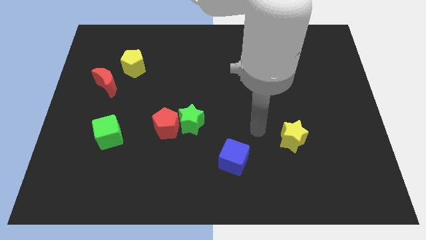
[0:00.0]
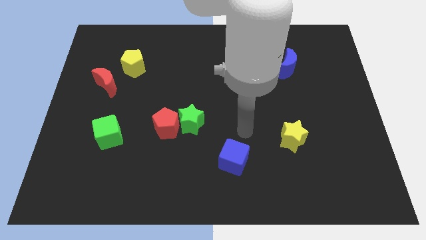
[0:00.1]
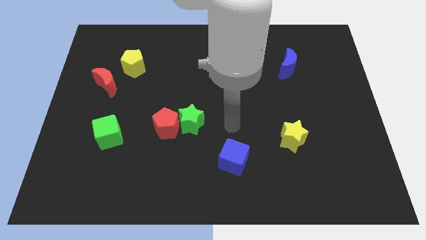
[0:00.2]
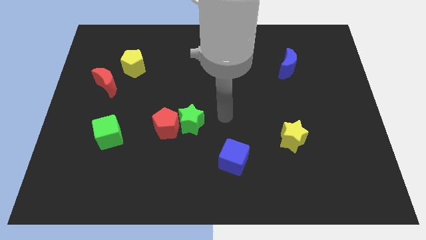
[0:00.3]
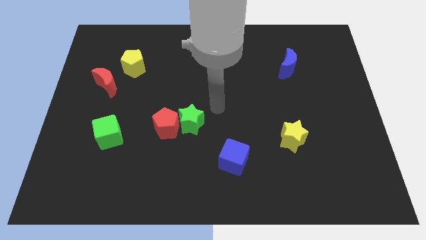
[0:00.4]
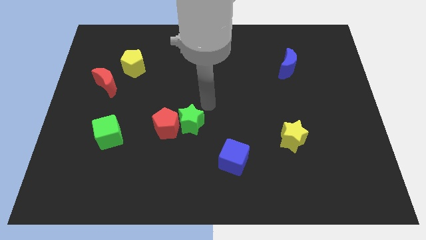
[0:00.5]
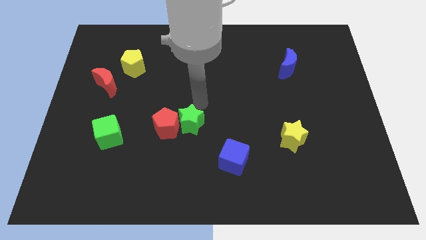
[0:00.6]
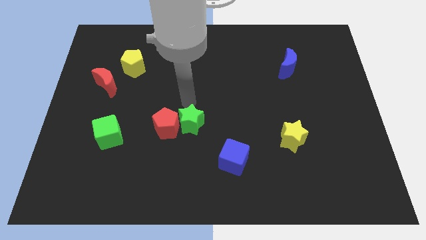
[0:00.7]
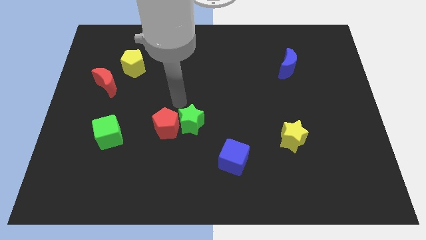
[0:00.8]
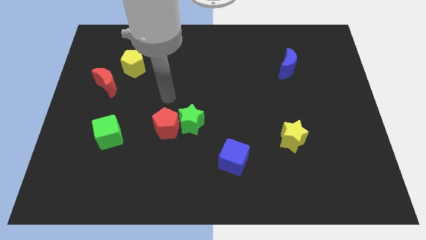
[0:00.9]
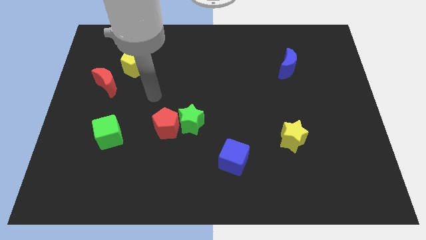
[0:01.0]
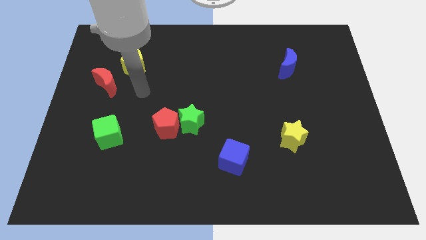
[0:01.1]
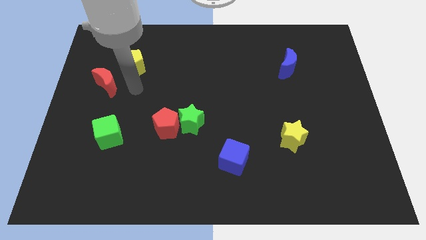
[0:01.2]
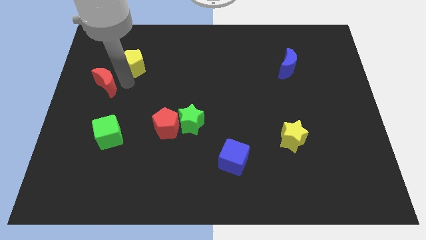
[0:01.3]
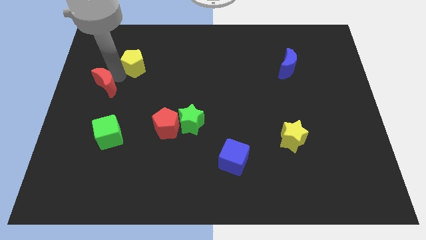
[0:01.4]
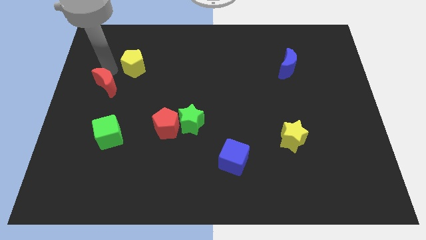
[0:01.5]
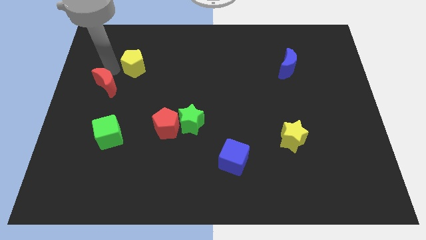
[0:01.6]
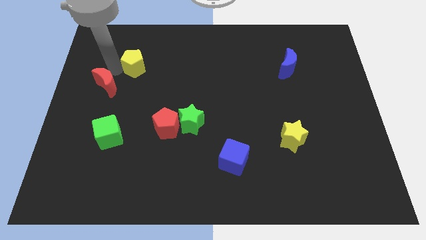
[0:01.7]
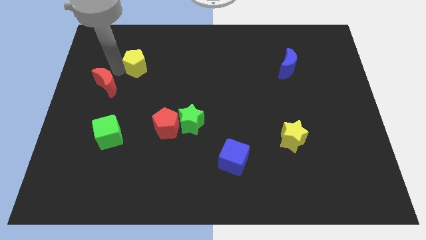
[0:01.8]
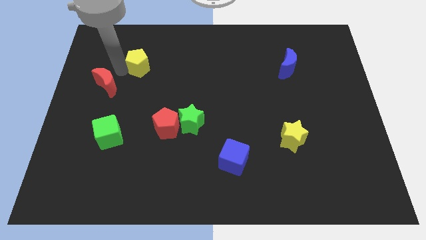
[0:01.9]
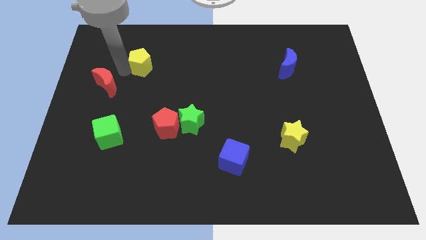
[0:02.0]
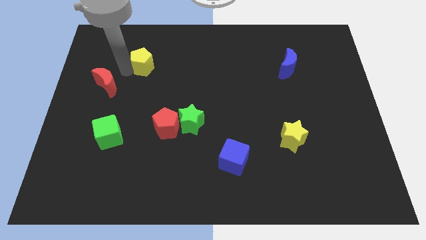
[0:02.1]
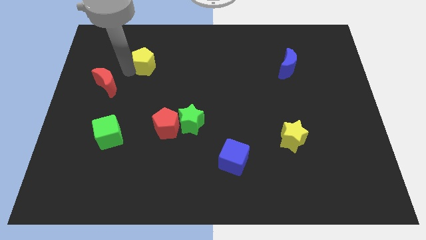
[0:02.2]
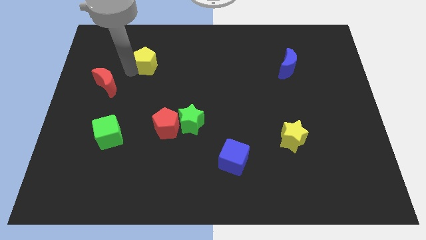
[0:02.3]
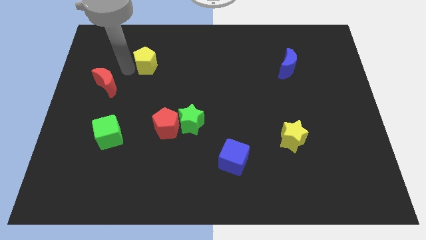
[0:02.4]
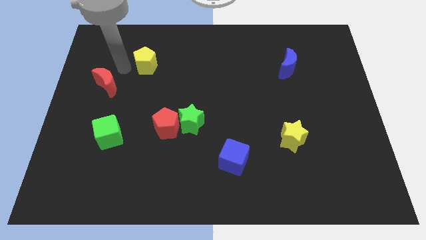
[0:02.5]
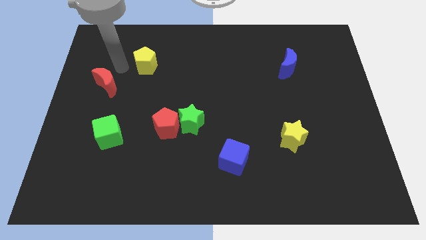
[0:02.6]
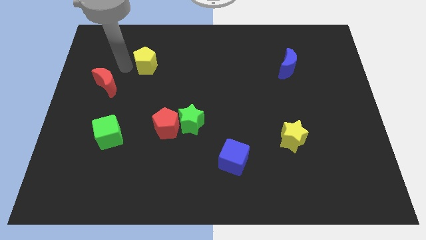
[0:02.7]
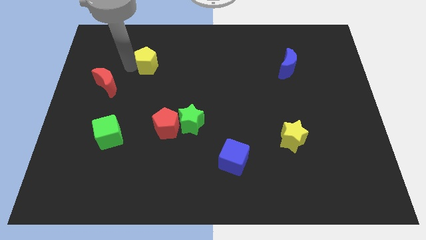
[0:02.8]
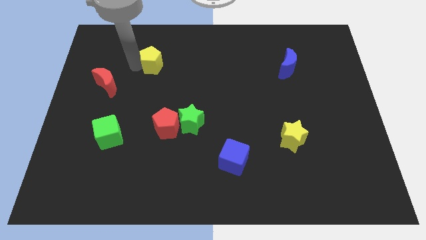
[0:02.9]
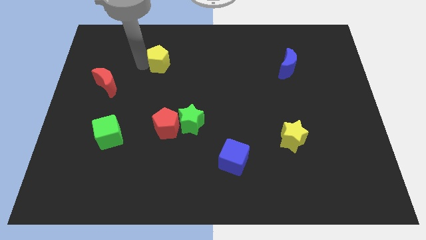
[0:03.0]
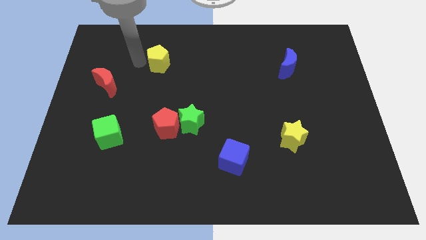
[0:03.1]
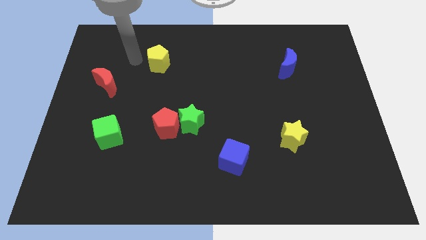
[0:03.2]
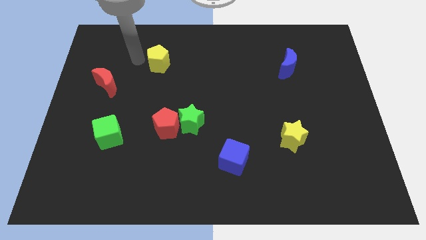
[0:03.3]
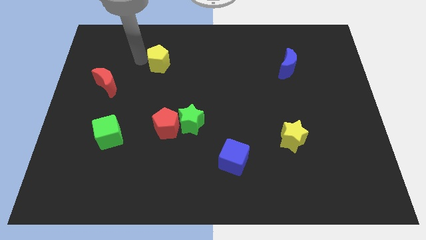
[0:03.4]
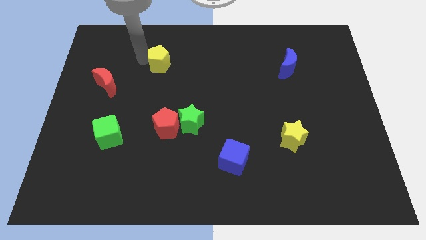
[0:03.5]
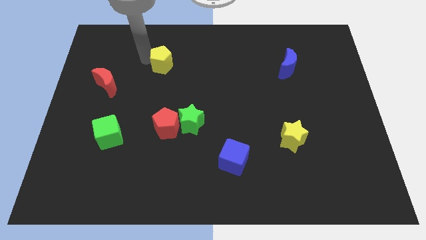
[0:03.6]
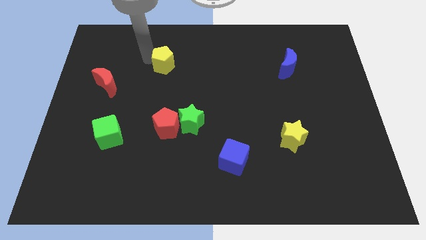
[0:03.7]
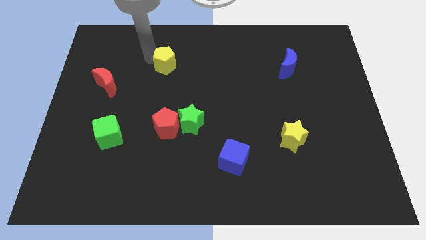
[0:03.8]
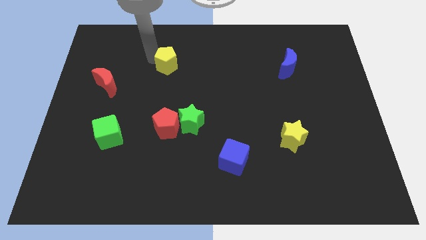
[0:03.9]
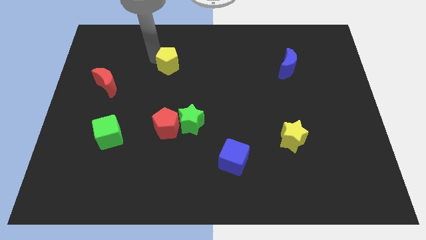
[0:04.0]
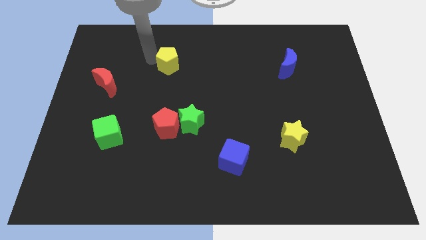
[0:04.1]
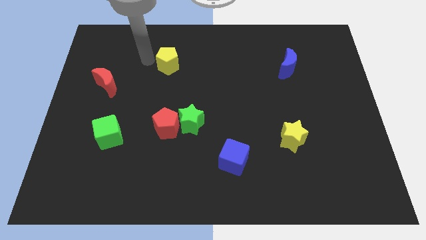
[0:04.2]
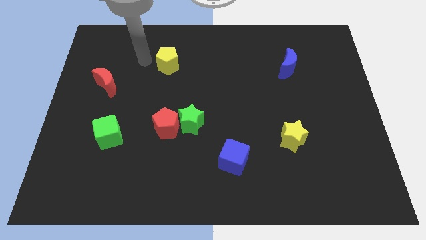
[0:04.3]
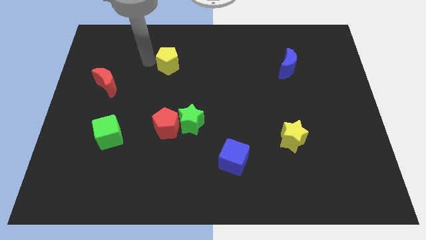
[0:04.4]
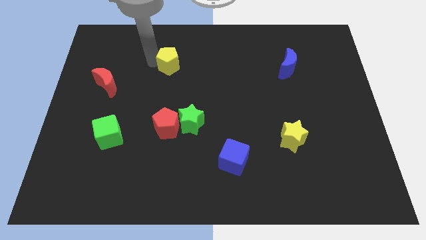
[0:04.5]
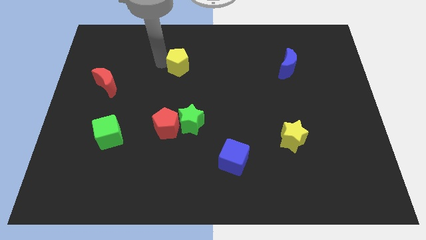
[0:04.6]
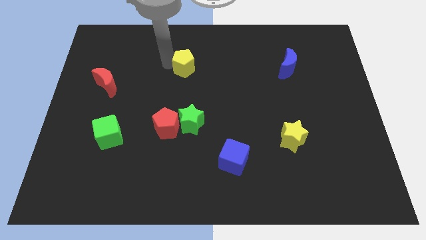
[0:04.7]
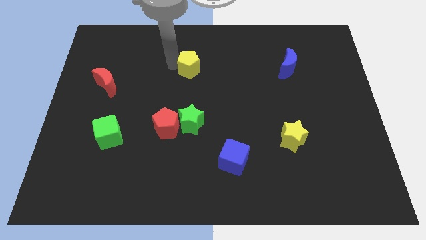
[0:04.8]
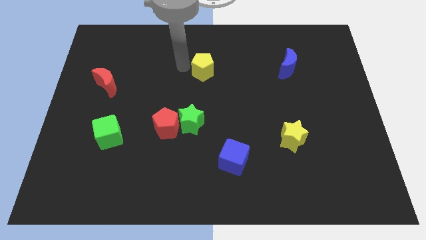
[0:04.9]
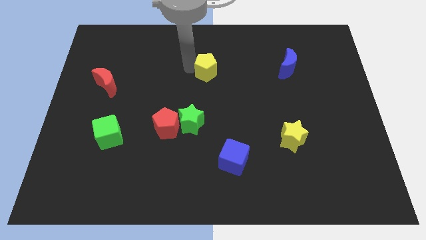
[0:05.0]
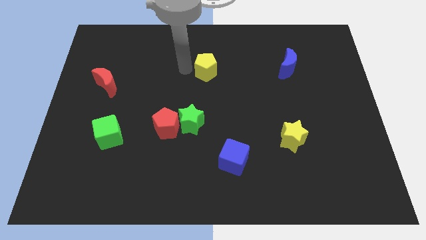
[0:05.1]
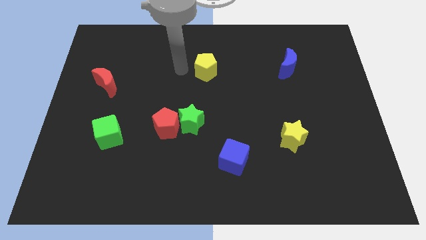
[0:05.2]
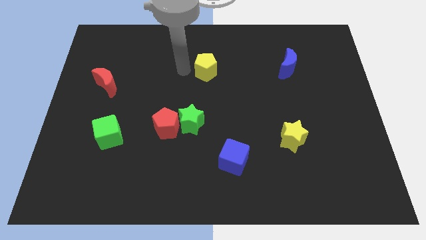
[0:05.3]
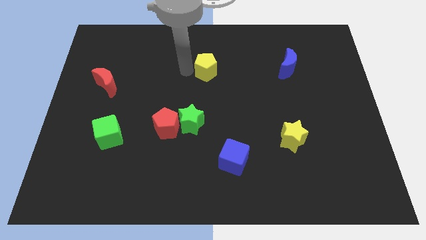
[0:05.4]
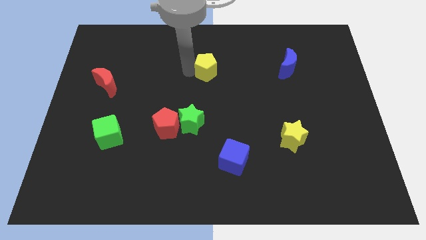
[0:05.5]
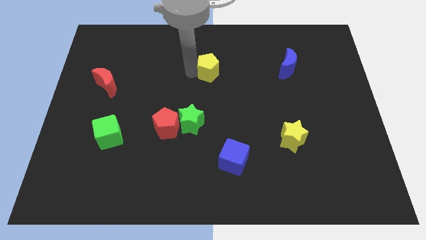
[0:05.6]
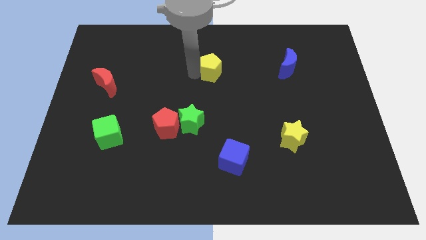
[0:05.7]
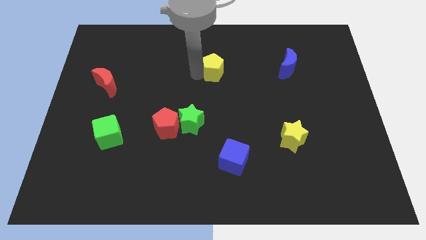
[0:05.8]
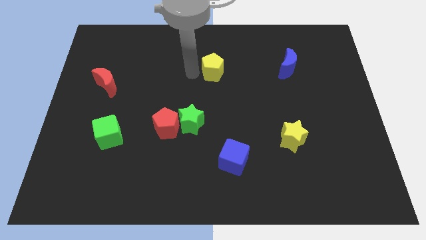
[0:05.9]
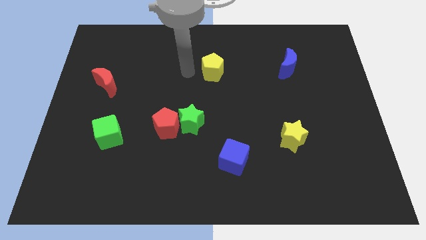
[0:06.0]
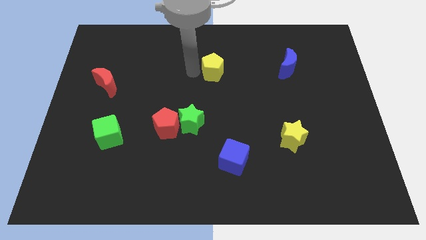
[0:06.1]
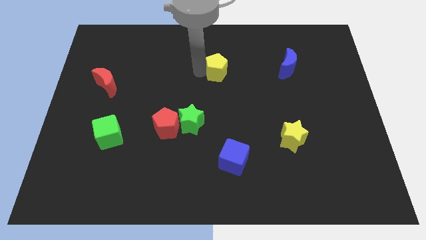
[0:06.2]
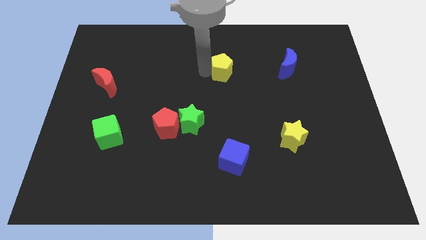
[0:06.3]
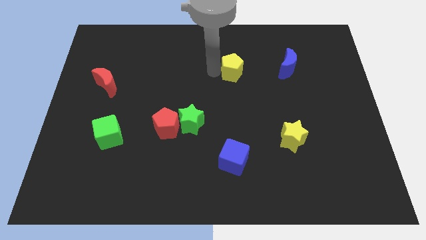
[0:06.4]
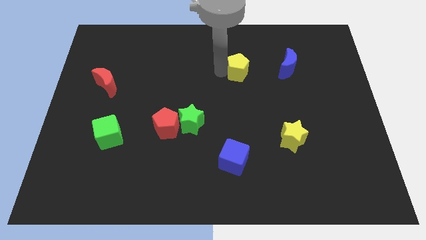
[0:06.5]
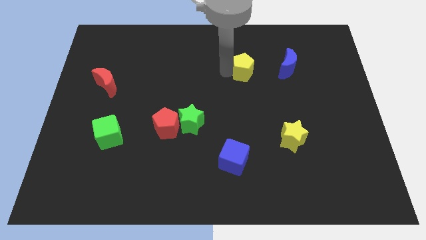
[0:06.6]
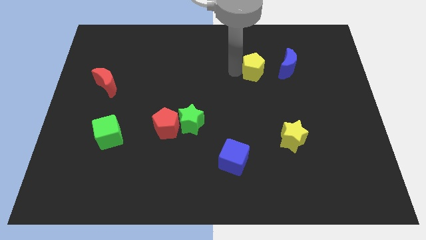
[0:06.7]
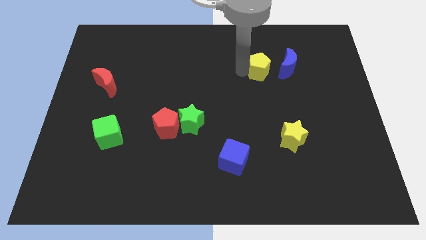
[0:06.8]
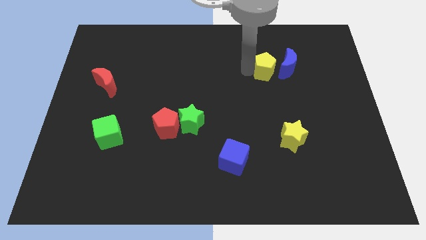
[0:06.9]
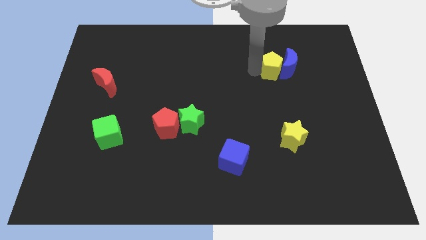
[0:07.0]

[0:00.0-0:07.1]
slide the yellow pentagon towards the blue moon
